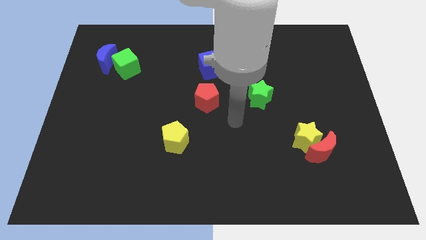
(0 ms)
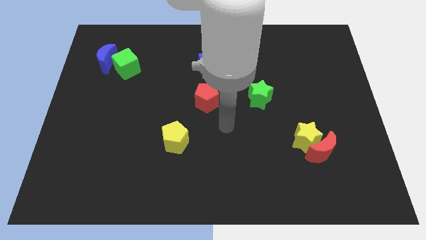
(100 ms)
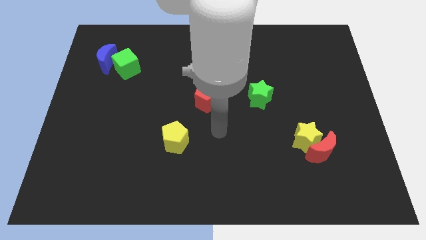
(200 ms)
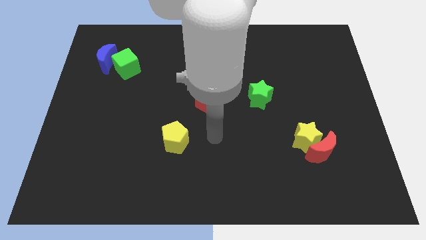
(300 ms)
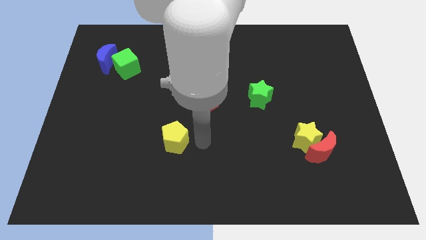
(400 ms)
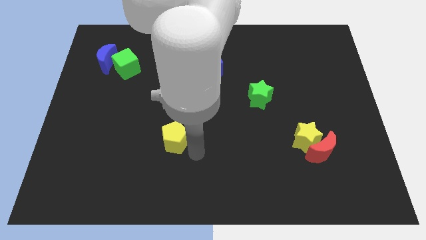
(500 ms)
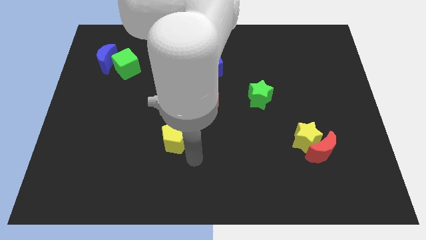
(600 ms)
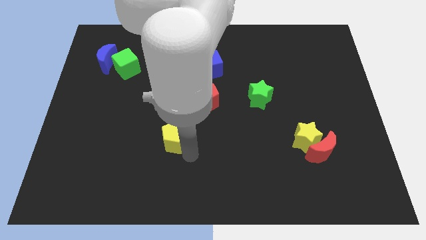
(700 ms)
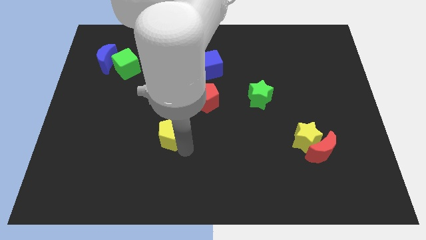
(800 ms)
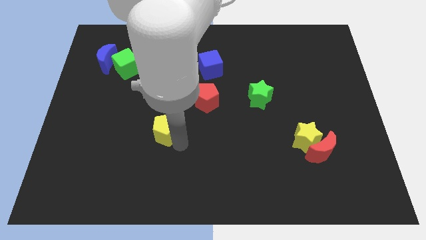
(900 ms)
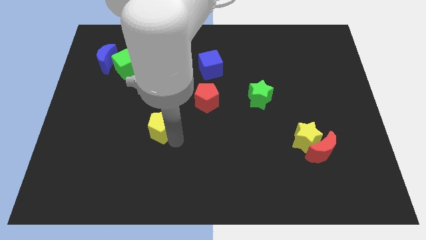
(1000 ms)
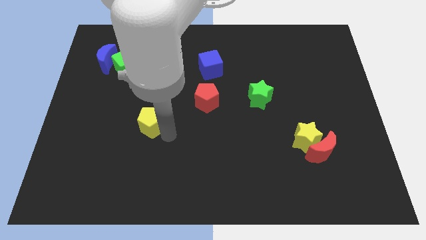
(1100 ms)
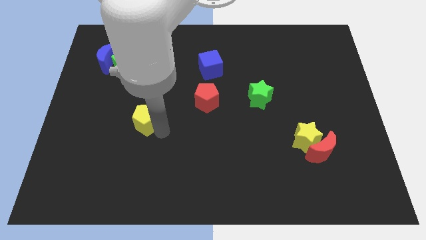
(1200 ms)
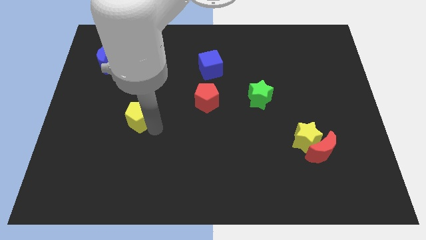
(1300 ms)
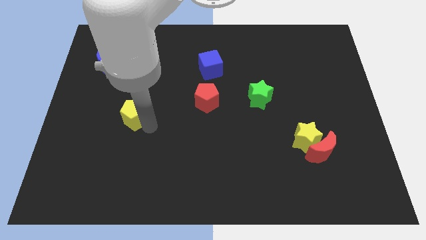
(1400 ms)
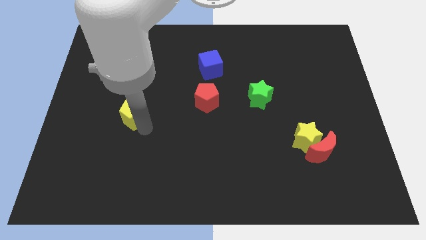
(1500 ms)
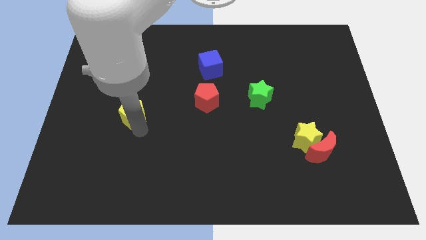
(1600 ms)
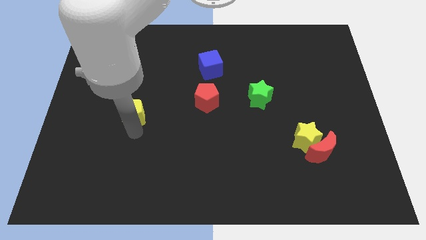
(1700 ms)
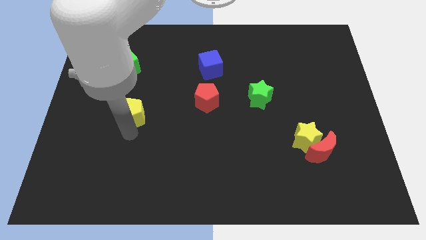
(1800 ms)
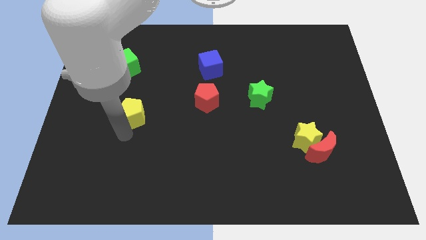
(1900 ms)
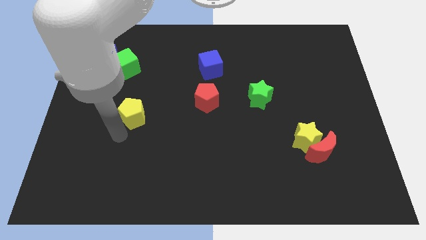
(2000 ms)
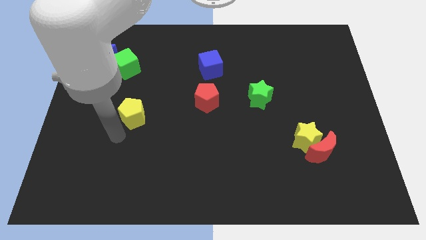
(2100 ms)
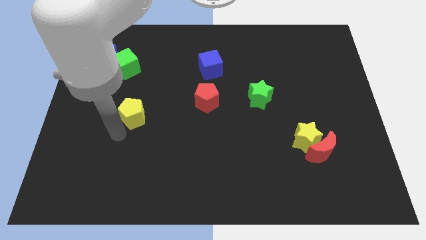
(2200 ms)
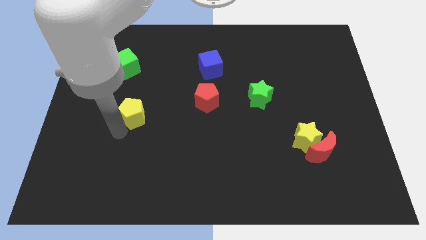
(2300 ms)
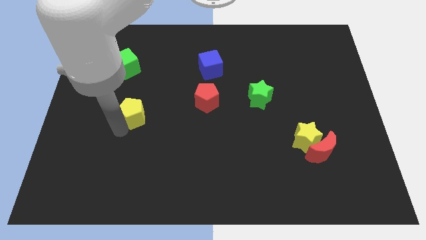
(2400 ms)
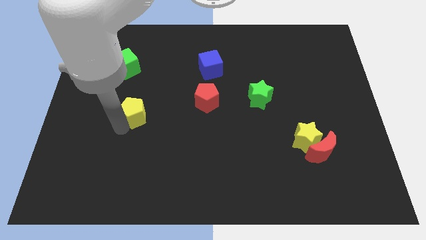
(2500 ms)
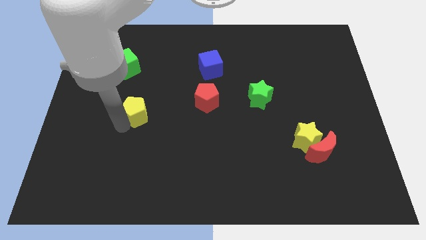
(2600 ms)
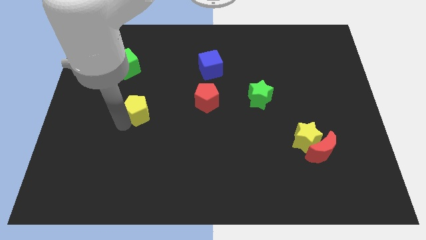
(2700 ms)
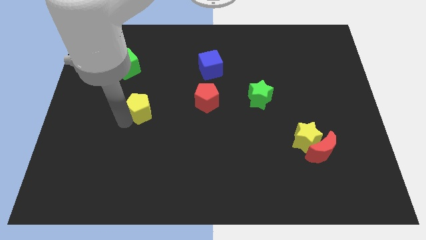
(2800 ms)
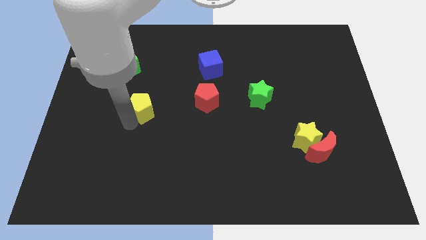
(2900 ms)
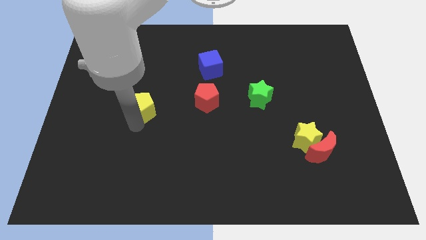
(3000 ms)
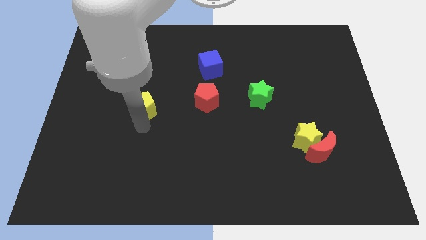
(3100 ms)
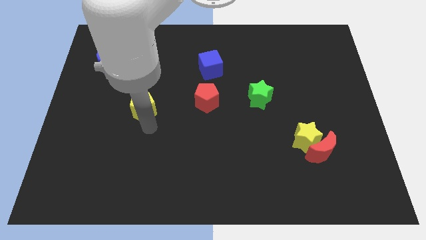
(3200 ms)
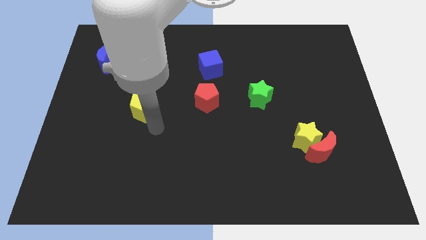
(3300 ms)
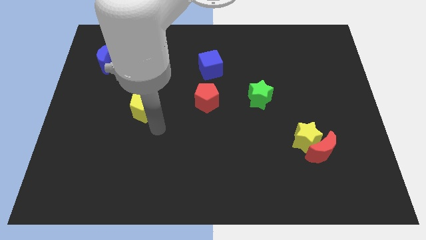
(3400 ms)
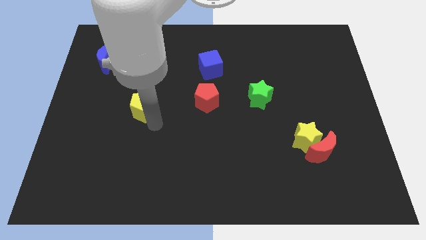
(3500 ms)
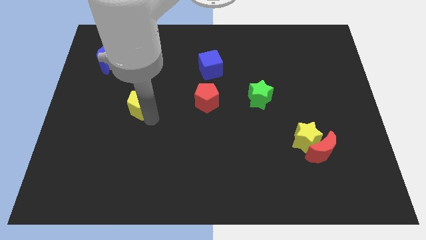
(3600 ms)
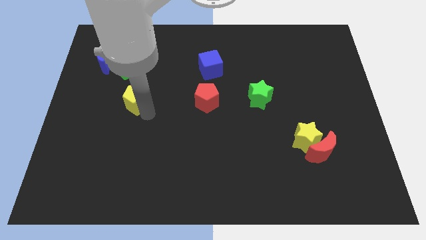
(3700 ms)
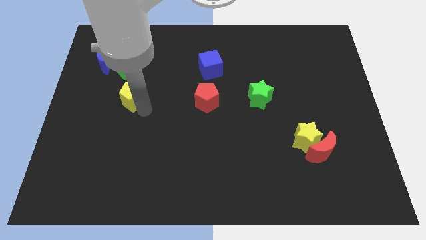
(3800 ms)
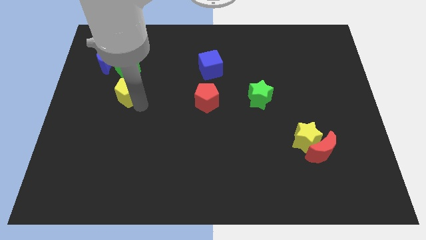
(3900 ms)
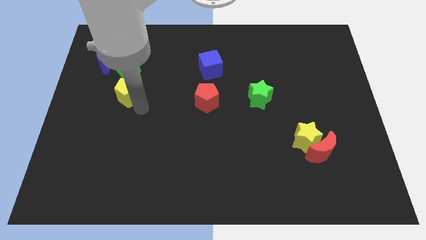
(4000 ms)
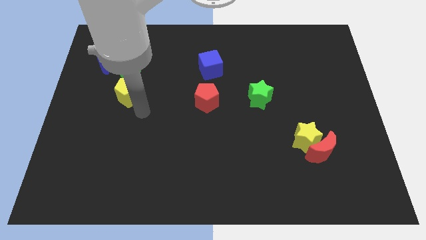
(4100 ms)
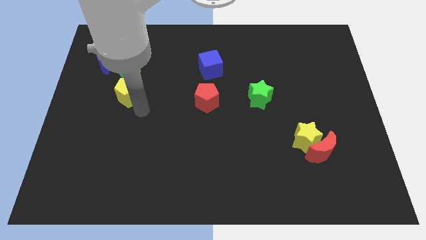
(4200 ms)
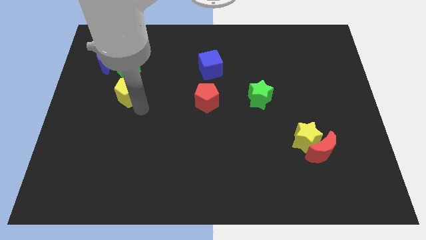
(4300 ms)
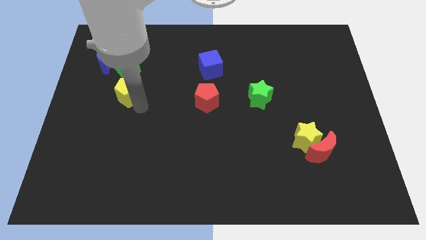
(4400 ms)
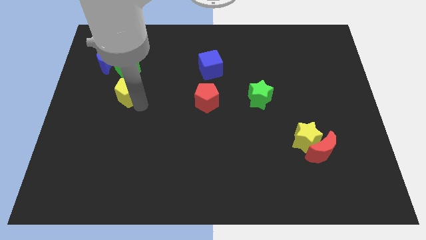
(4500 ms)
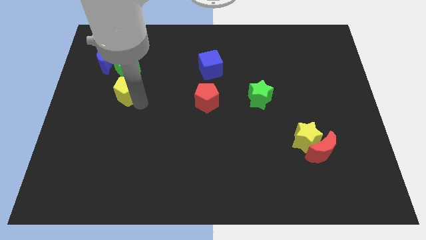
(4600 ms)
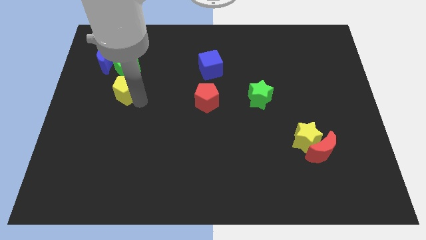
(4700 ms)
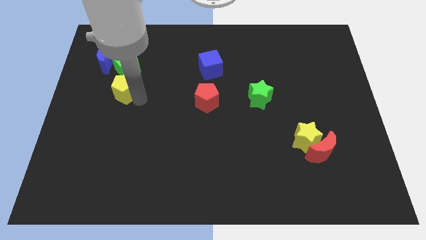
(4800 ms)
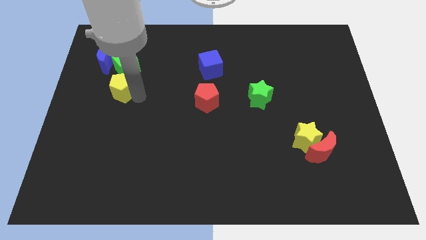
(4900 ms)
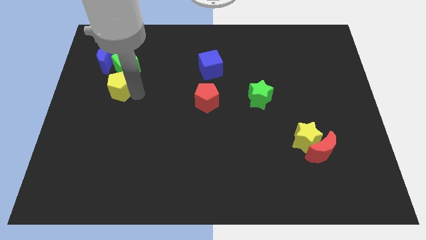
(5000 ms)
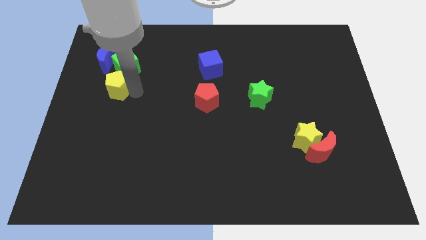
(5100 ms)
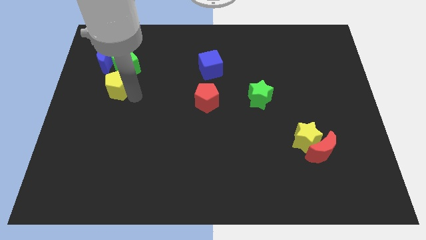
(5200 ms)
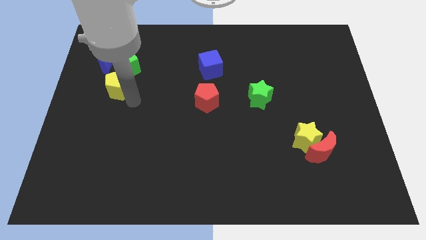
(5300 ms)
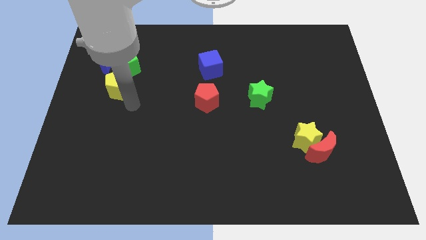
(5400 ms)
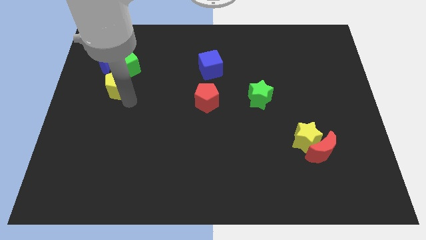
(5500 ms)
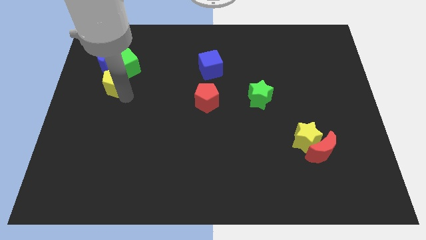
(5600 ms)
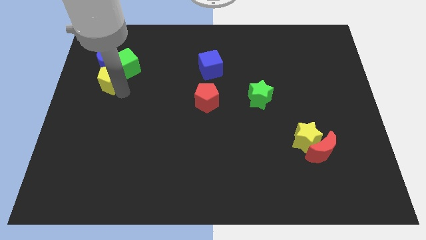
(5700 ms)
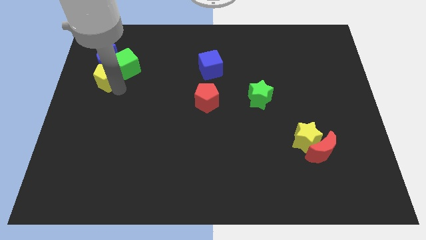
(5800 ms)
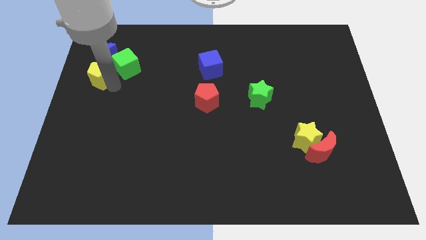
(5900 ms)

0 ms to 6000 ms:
move the yellow pentagon to the blue moon

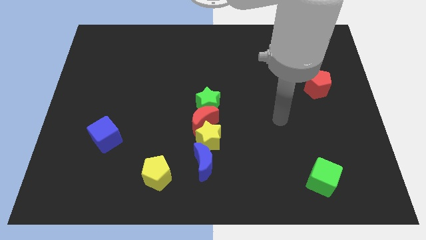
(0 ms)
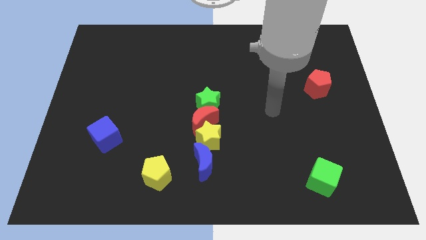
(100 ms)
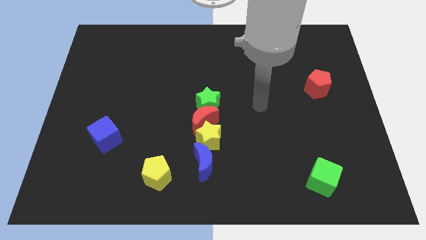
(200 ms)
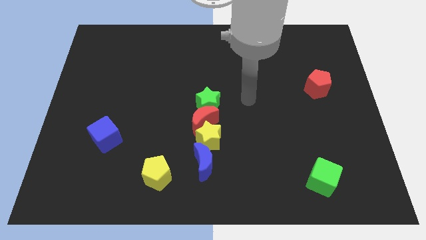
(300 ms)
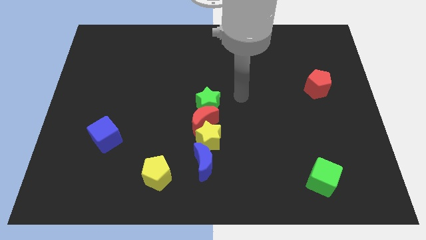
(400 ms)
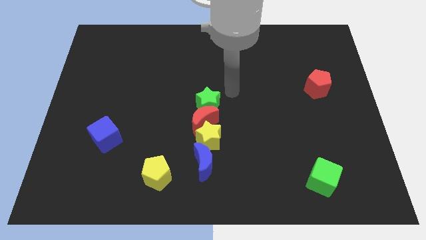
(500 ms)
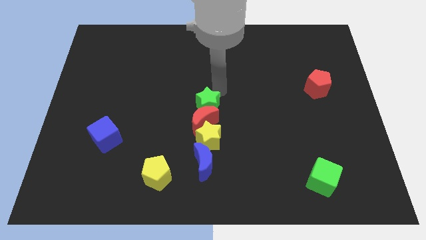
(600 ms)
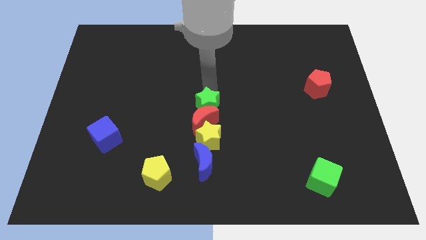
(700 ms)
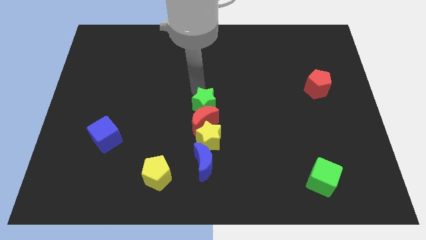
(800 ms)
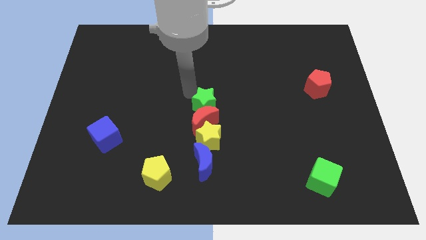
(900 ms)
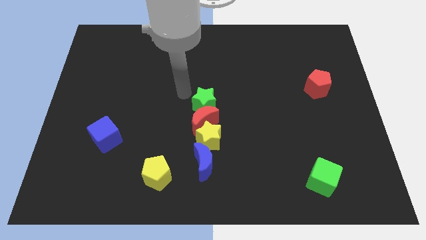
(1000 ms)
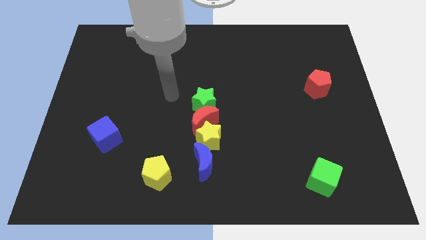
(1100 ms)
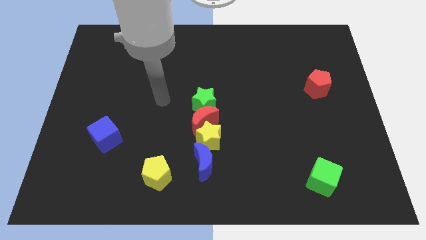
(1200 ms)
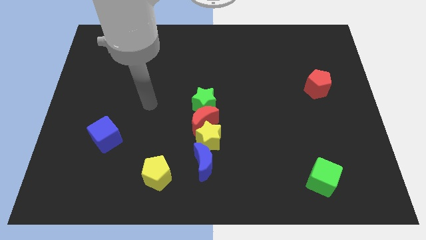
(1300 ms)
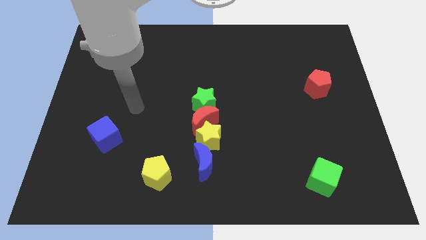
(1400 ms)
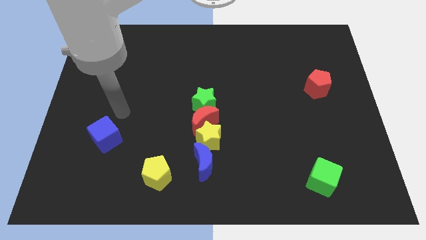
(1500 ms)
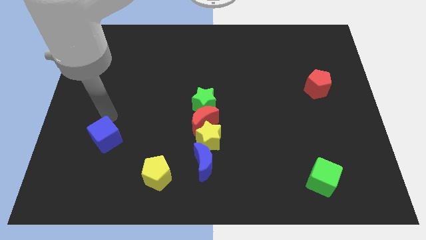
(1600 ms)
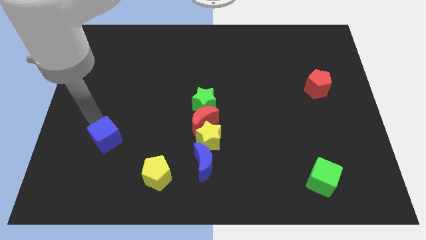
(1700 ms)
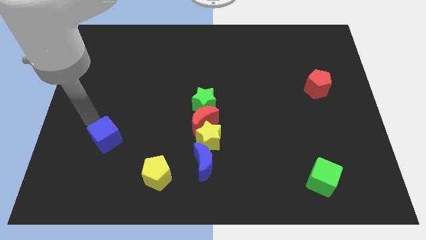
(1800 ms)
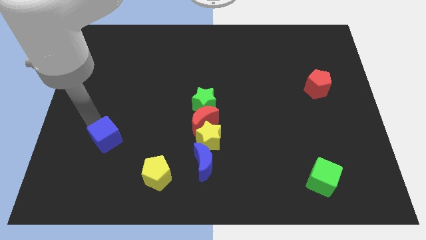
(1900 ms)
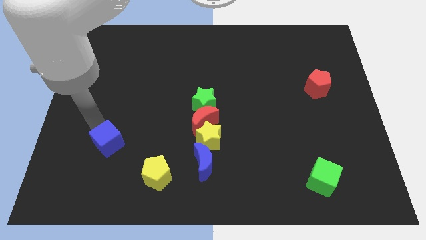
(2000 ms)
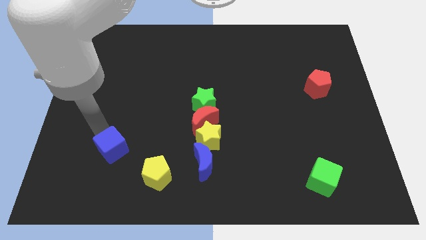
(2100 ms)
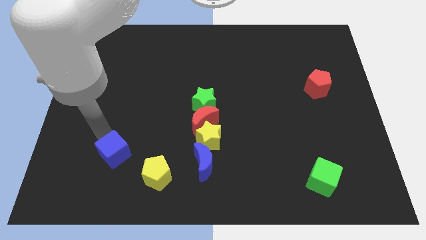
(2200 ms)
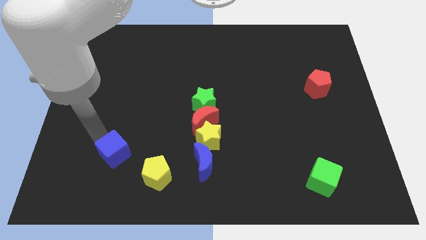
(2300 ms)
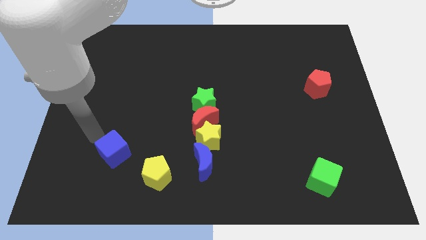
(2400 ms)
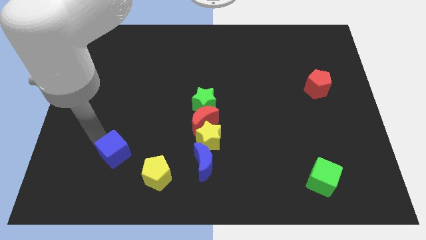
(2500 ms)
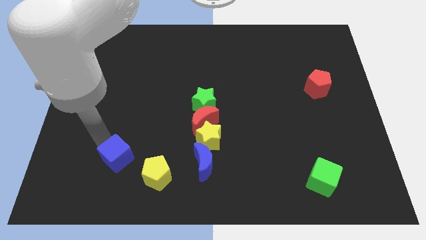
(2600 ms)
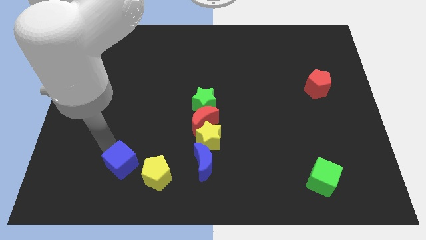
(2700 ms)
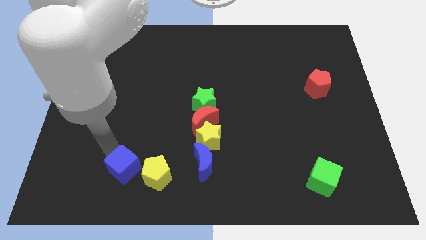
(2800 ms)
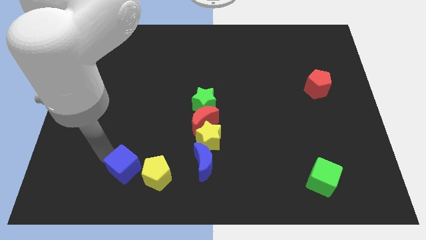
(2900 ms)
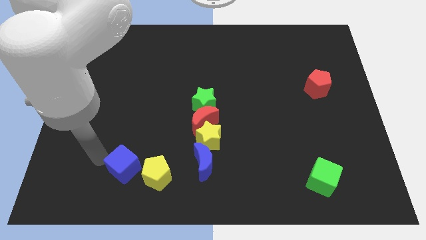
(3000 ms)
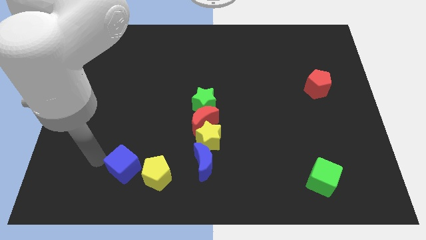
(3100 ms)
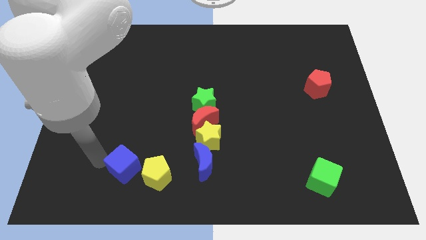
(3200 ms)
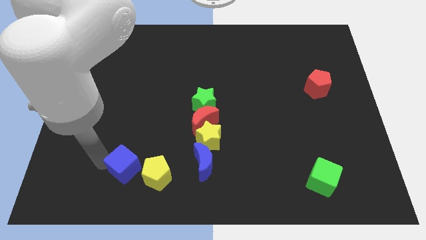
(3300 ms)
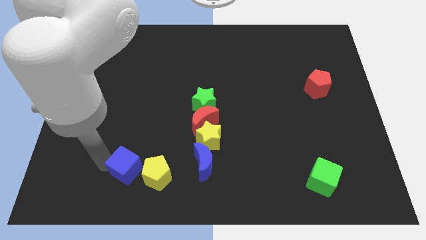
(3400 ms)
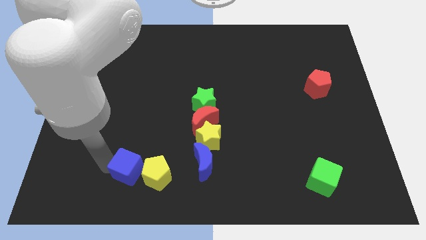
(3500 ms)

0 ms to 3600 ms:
put the blue cube next to the yellow pentagon
